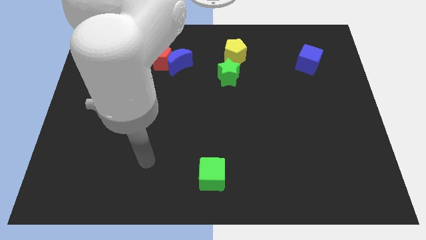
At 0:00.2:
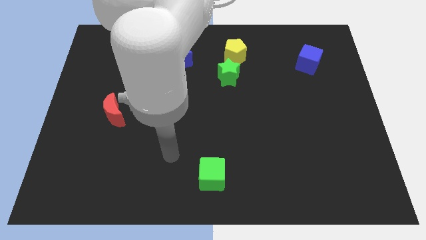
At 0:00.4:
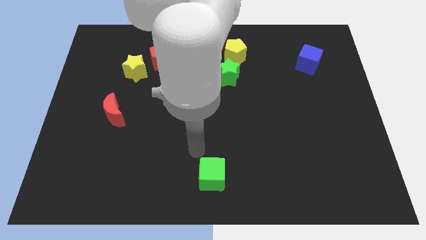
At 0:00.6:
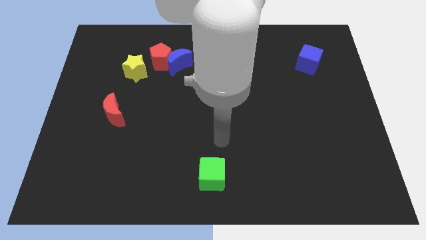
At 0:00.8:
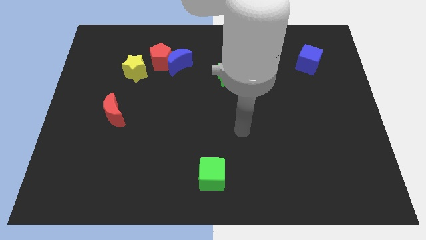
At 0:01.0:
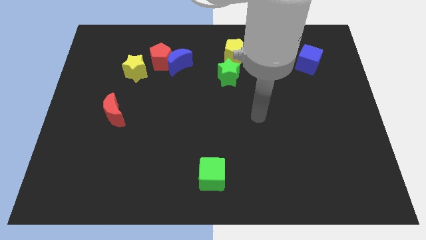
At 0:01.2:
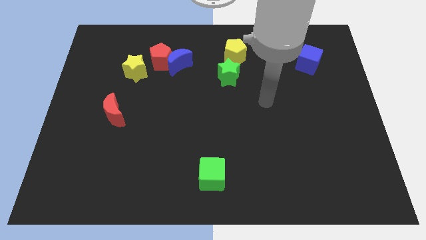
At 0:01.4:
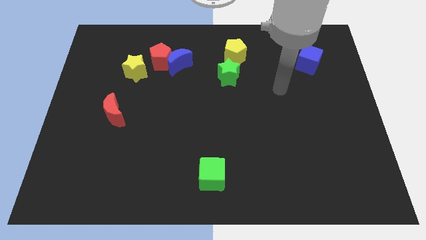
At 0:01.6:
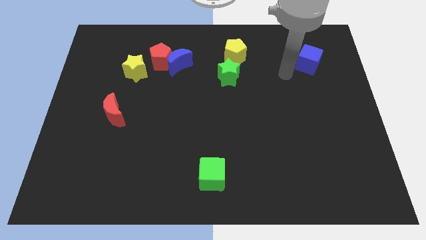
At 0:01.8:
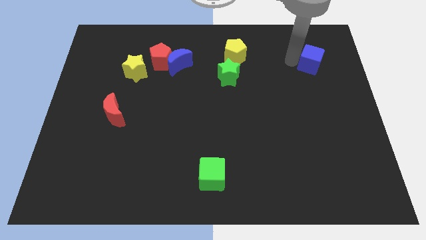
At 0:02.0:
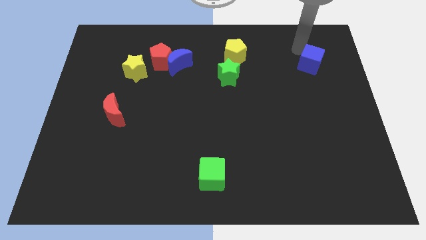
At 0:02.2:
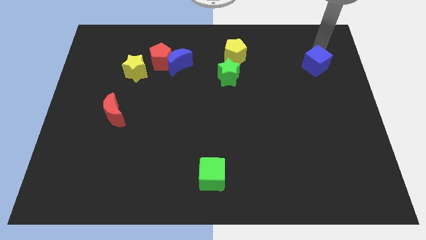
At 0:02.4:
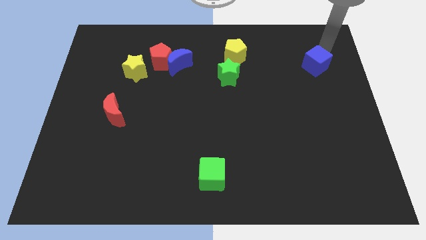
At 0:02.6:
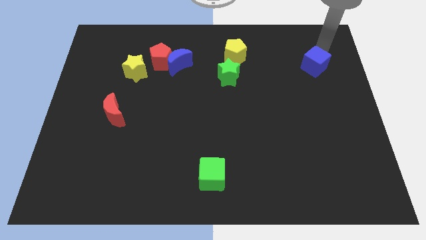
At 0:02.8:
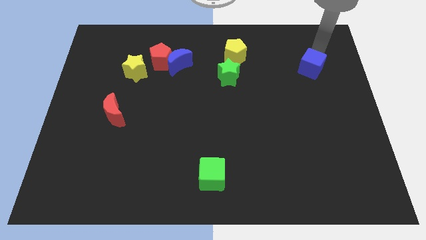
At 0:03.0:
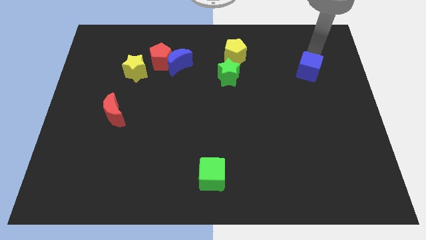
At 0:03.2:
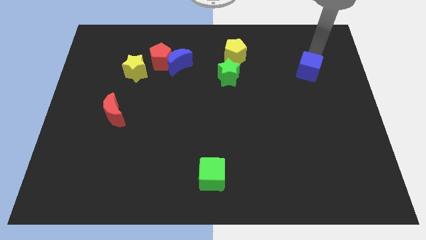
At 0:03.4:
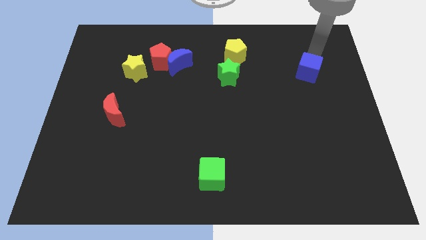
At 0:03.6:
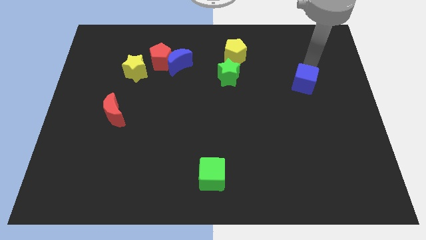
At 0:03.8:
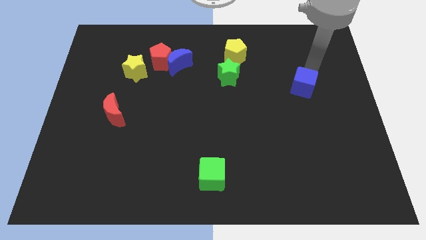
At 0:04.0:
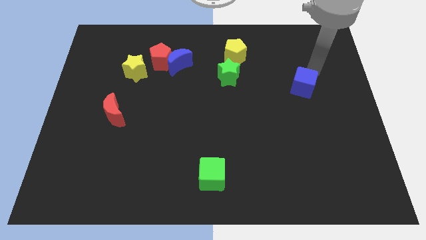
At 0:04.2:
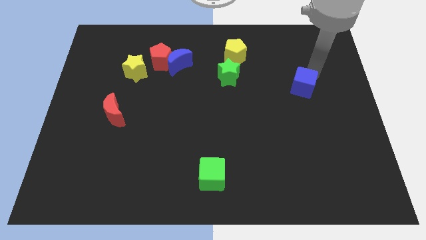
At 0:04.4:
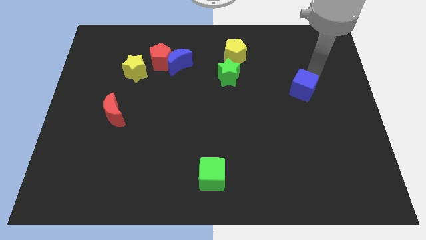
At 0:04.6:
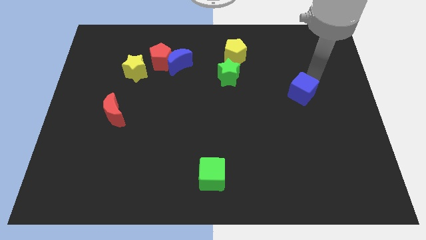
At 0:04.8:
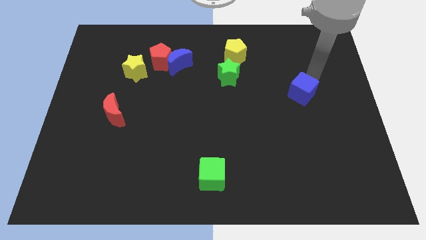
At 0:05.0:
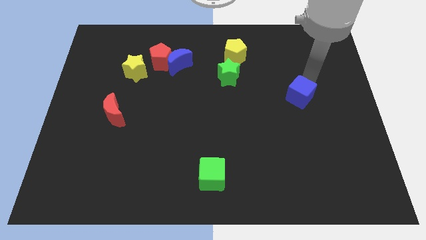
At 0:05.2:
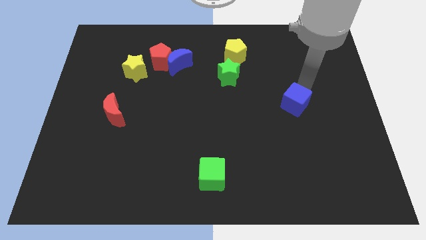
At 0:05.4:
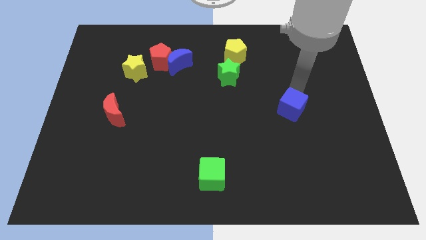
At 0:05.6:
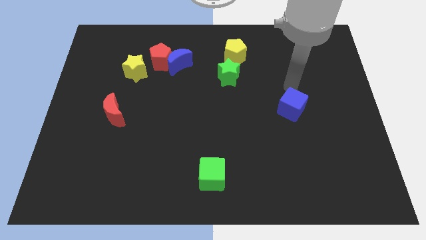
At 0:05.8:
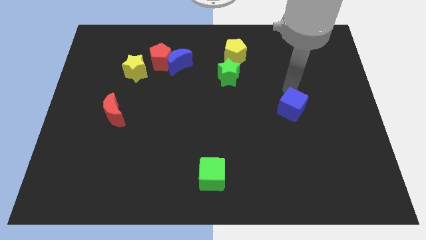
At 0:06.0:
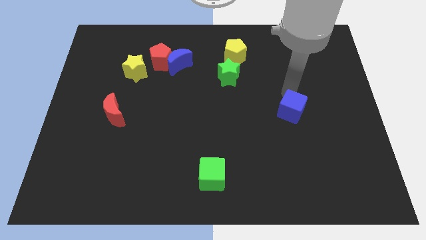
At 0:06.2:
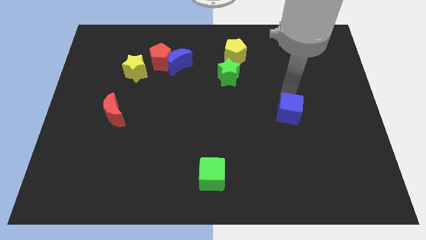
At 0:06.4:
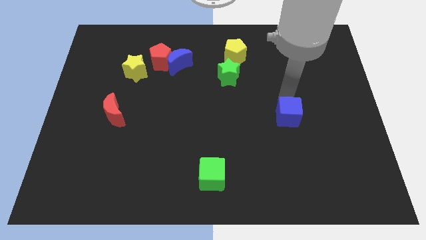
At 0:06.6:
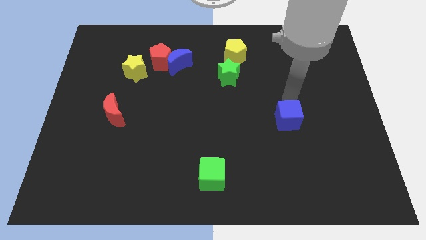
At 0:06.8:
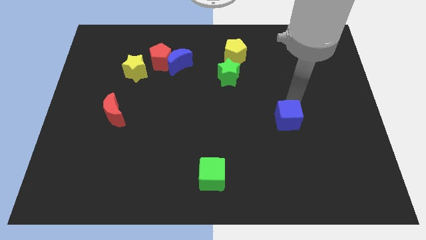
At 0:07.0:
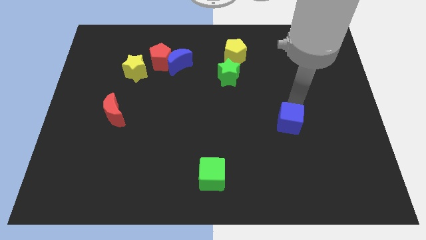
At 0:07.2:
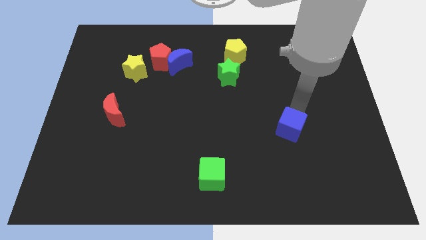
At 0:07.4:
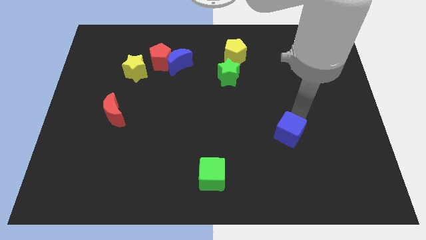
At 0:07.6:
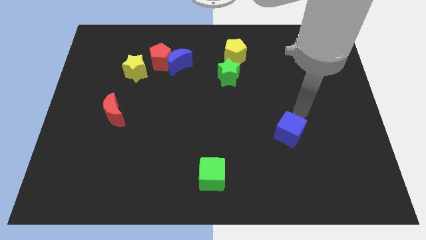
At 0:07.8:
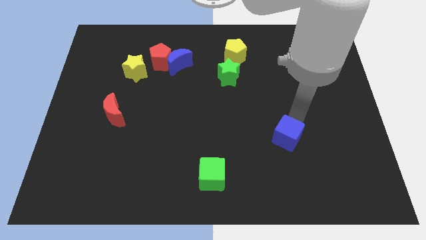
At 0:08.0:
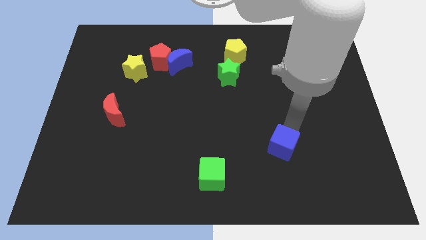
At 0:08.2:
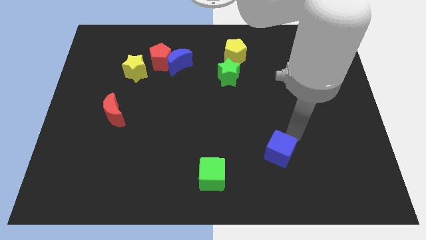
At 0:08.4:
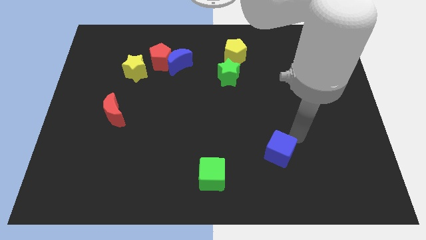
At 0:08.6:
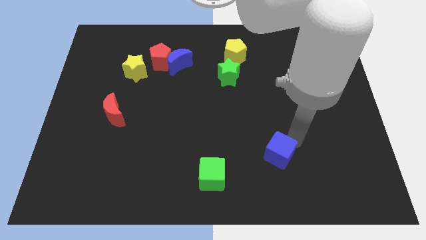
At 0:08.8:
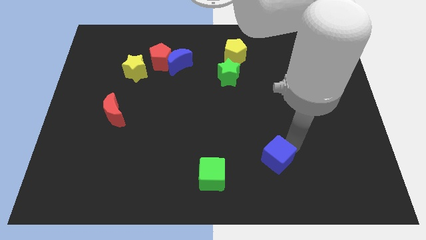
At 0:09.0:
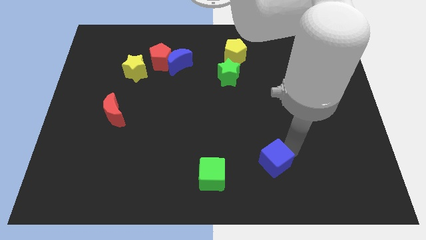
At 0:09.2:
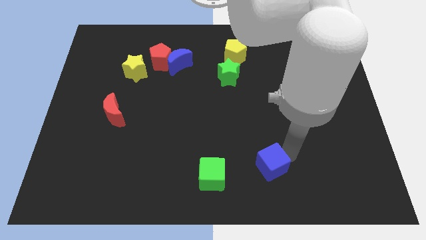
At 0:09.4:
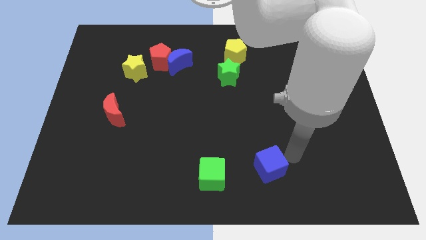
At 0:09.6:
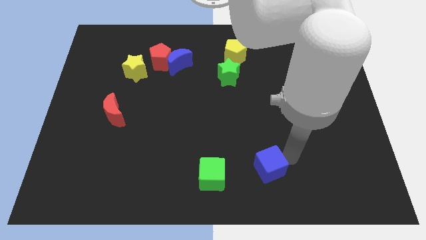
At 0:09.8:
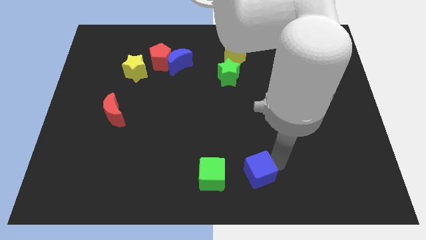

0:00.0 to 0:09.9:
move the blue cube to the bottom side

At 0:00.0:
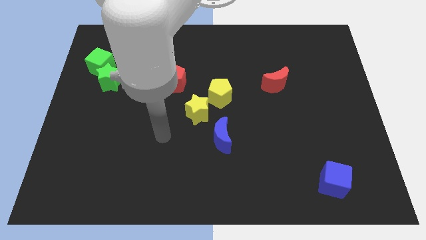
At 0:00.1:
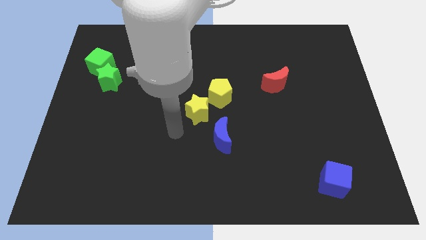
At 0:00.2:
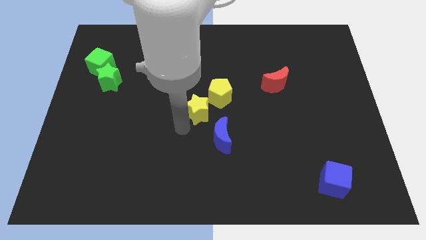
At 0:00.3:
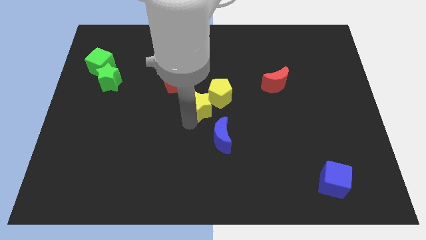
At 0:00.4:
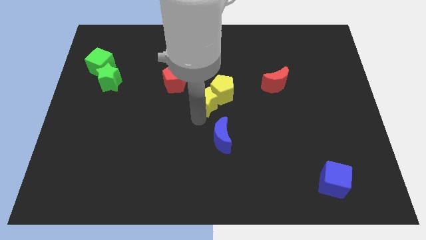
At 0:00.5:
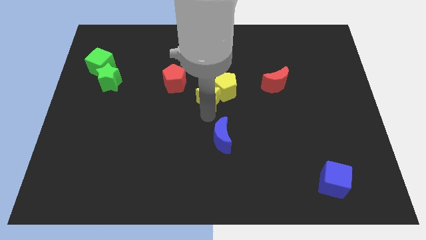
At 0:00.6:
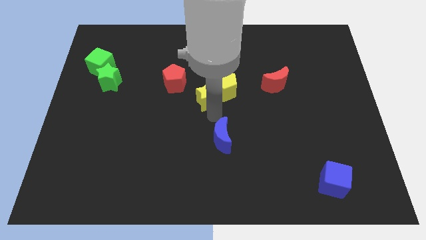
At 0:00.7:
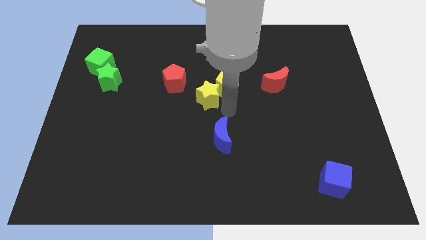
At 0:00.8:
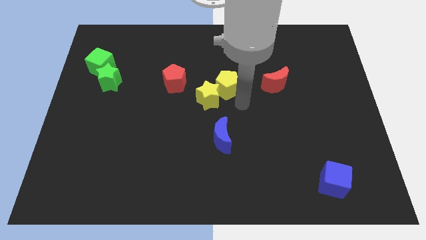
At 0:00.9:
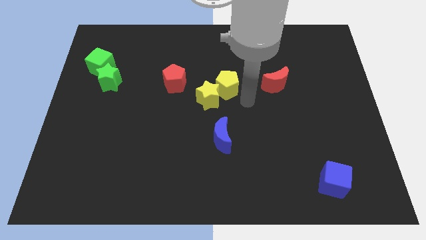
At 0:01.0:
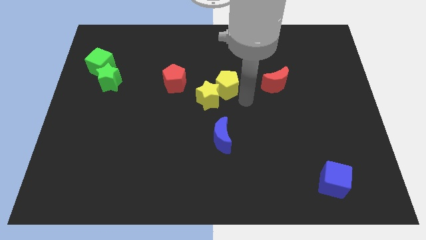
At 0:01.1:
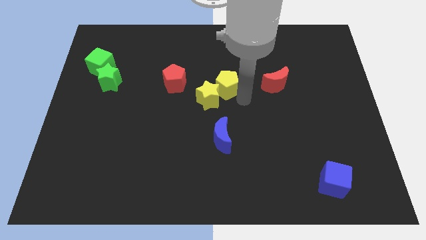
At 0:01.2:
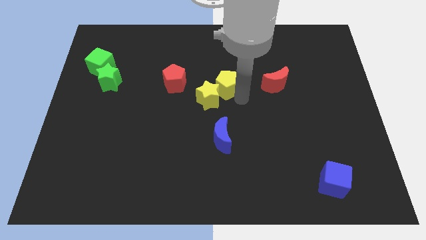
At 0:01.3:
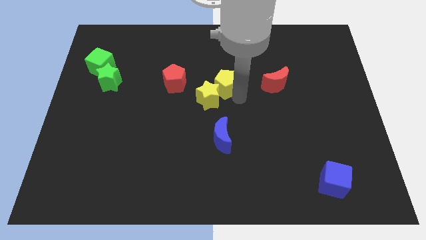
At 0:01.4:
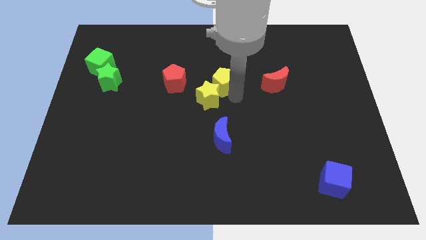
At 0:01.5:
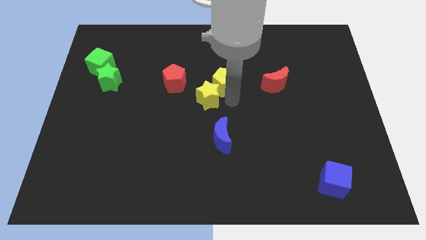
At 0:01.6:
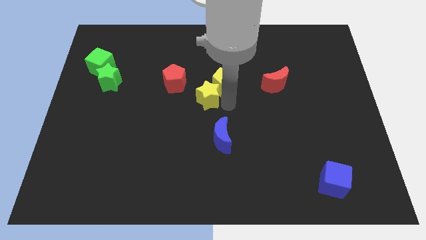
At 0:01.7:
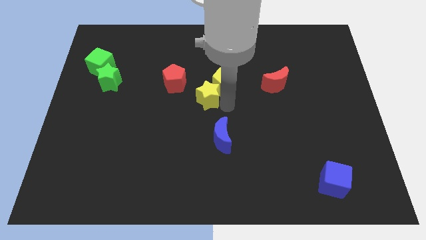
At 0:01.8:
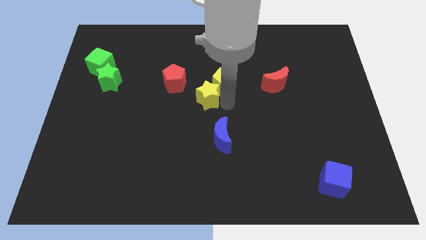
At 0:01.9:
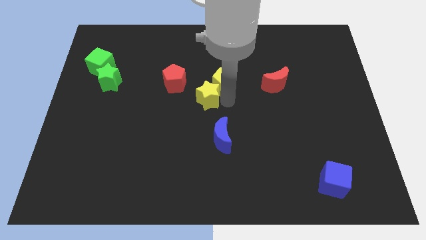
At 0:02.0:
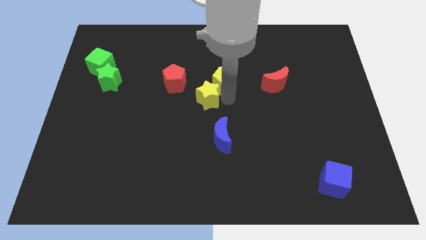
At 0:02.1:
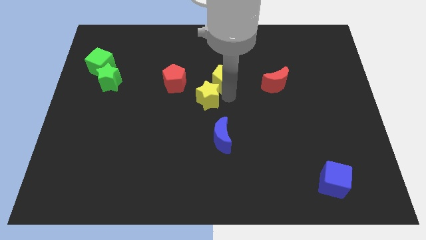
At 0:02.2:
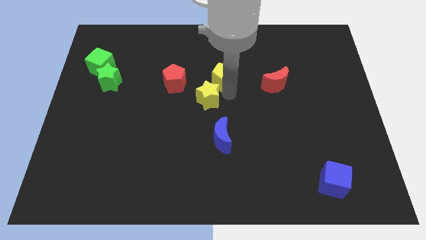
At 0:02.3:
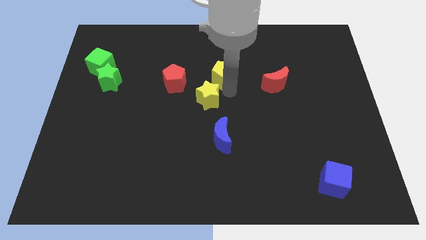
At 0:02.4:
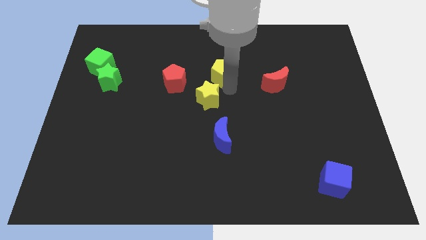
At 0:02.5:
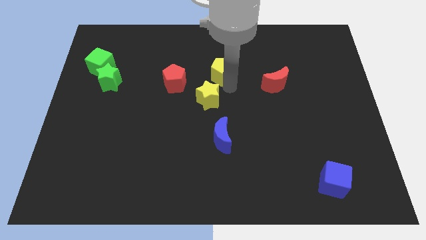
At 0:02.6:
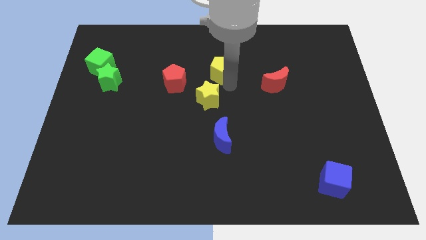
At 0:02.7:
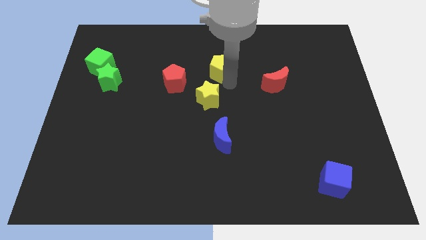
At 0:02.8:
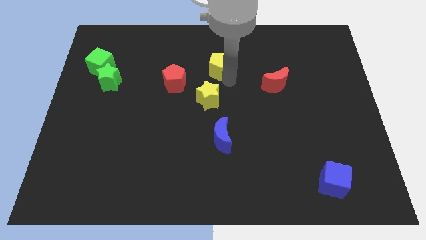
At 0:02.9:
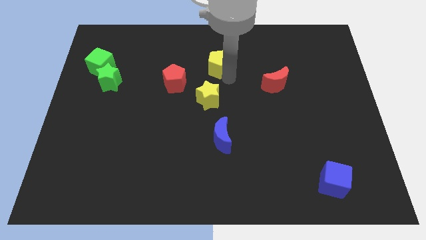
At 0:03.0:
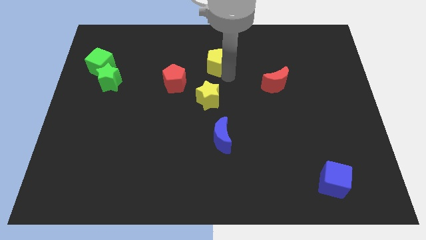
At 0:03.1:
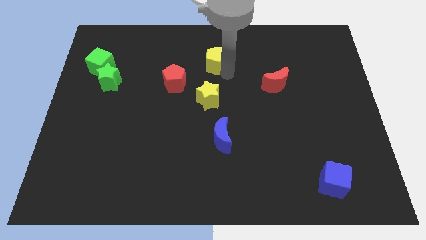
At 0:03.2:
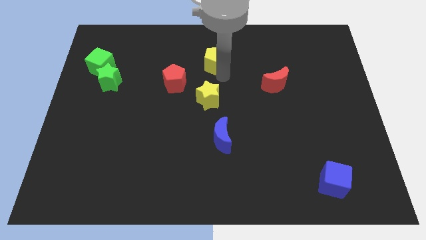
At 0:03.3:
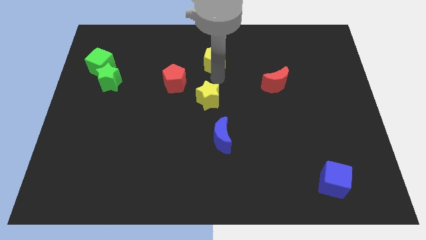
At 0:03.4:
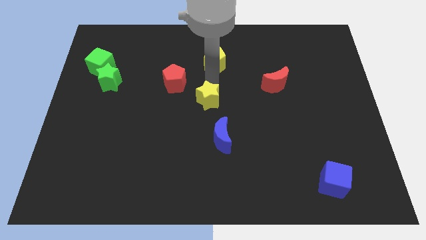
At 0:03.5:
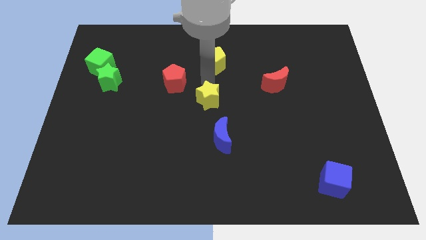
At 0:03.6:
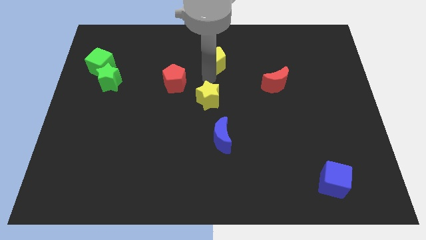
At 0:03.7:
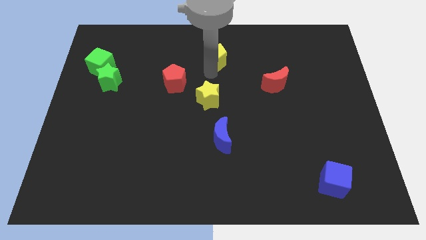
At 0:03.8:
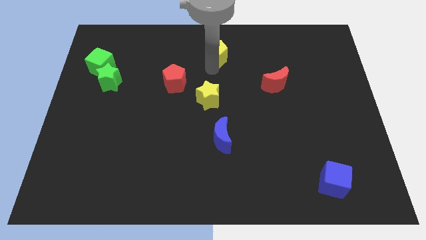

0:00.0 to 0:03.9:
slide the yellow pentagon to the top
